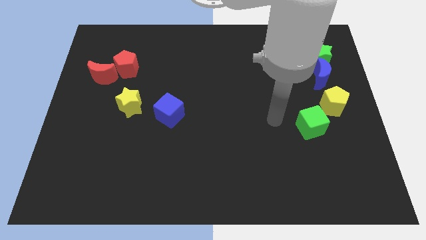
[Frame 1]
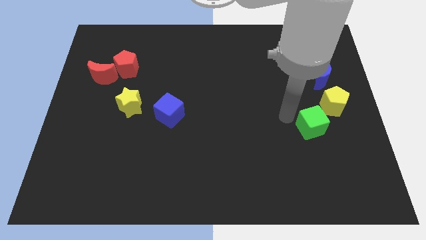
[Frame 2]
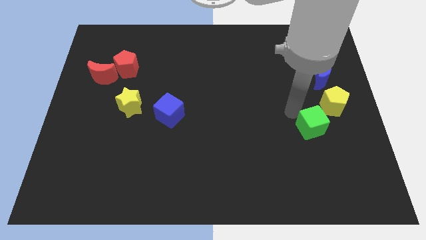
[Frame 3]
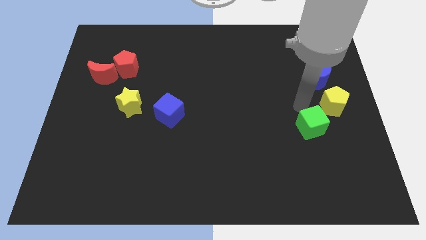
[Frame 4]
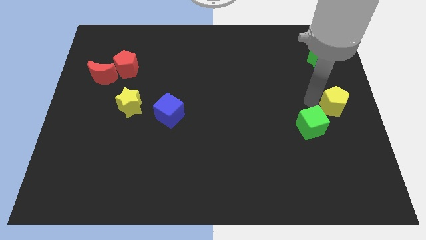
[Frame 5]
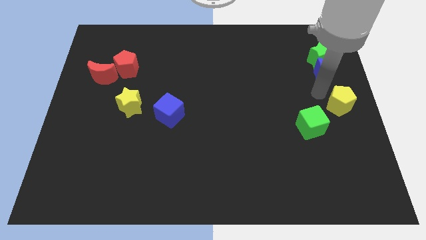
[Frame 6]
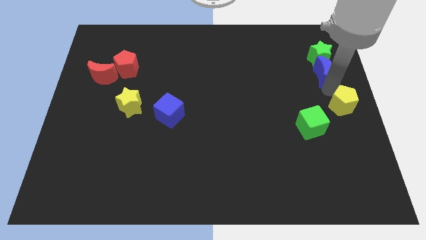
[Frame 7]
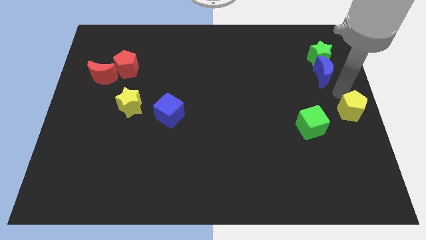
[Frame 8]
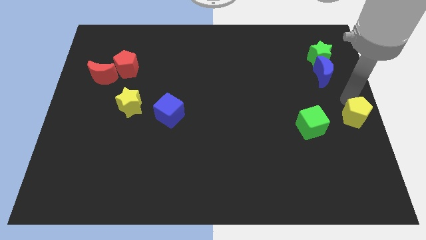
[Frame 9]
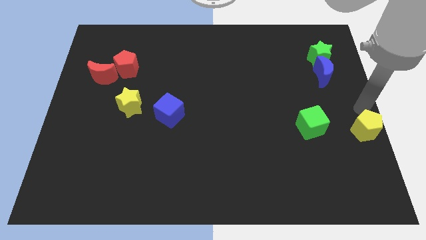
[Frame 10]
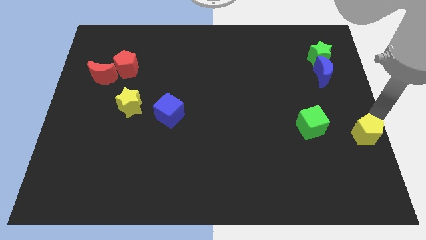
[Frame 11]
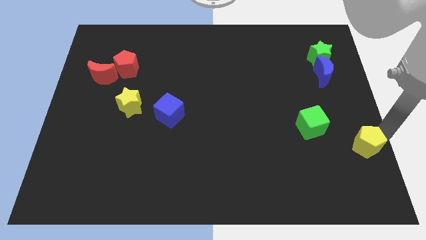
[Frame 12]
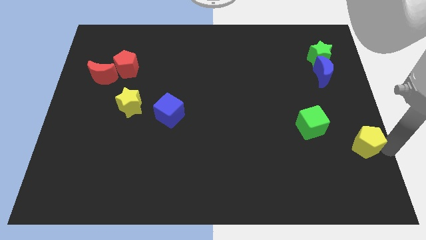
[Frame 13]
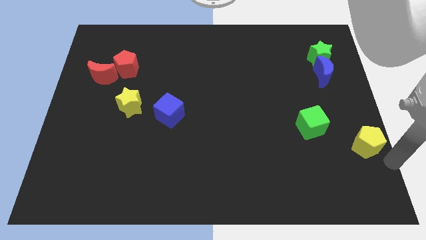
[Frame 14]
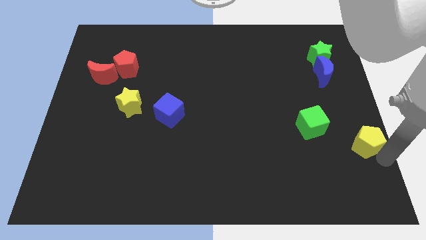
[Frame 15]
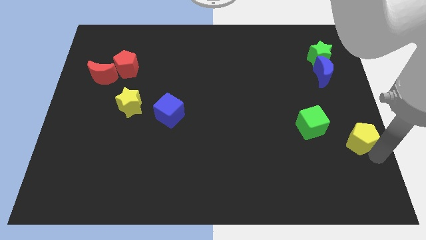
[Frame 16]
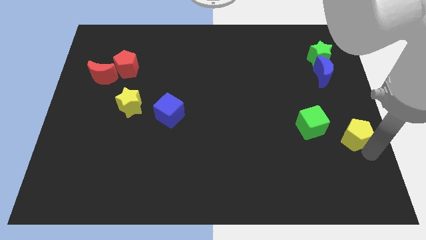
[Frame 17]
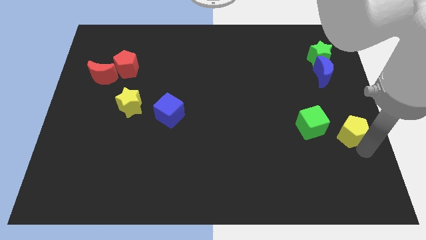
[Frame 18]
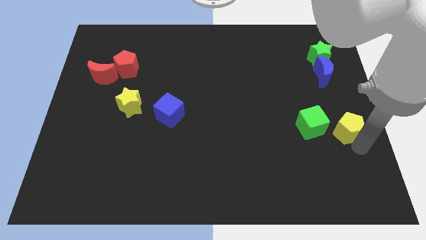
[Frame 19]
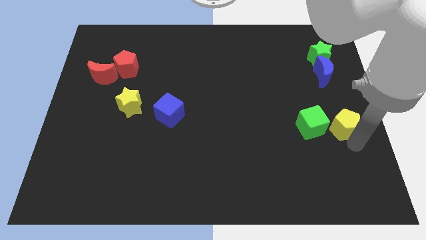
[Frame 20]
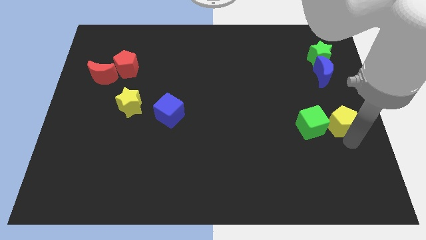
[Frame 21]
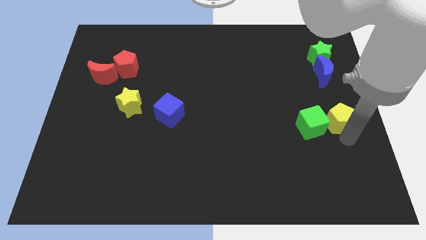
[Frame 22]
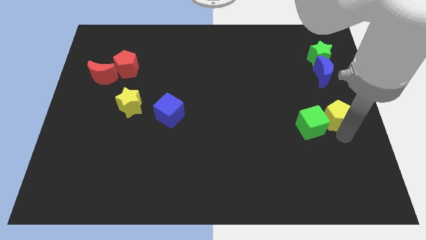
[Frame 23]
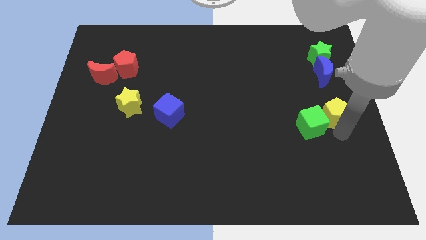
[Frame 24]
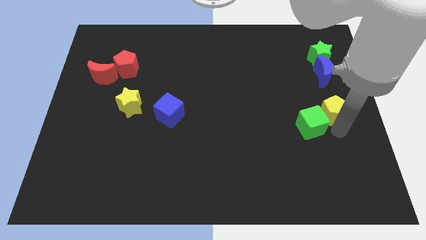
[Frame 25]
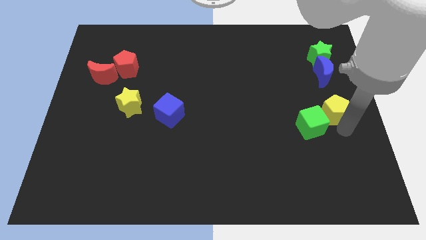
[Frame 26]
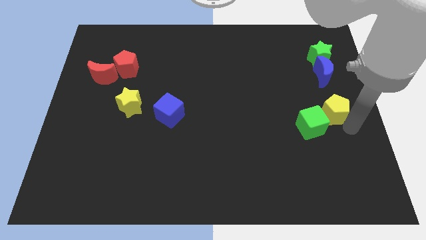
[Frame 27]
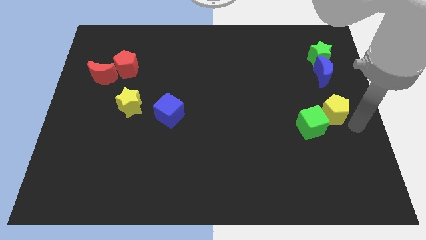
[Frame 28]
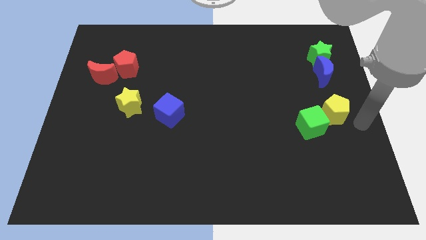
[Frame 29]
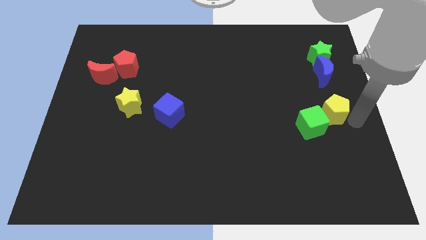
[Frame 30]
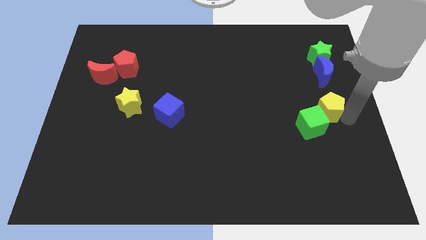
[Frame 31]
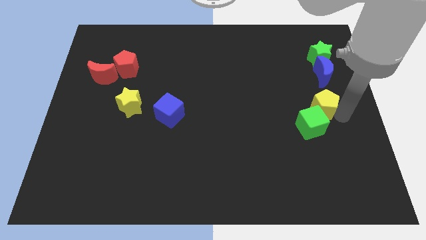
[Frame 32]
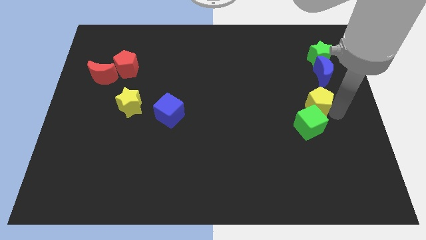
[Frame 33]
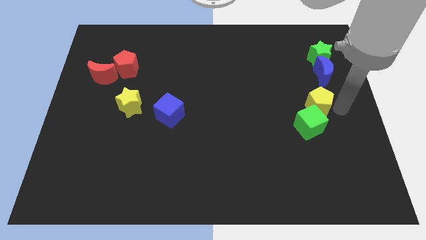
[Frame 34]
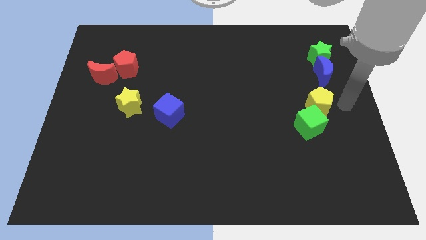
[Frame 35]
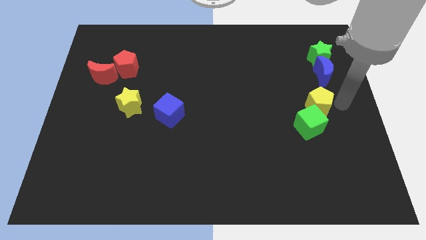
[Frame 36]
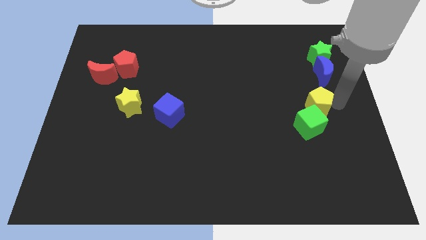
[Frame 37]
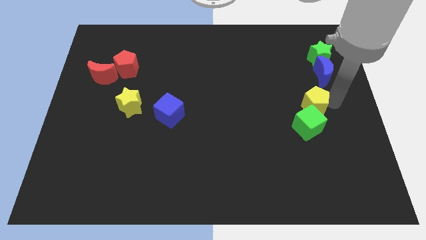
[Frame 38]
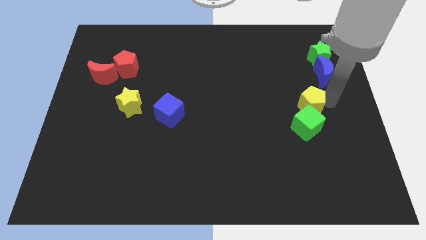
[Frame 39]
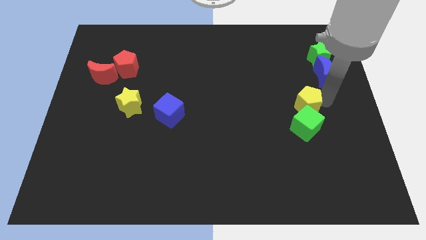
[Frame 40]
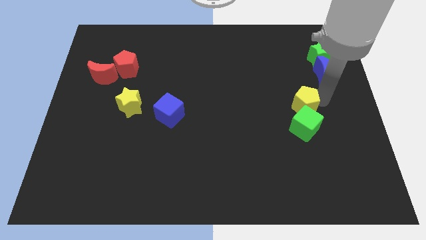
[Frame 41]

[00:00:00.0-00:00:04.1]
slightly slide the yellow pentagon left

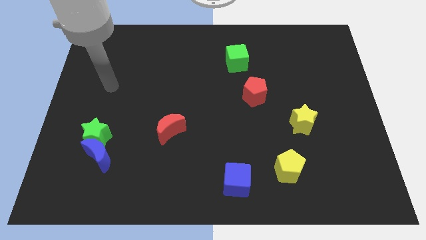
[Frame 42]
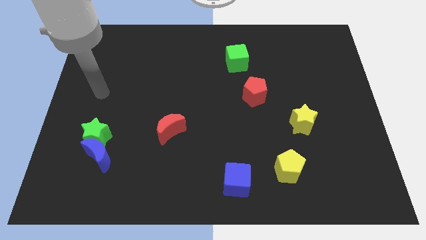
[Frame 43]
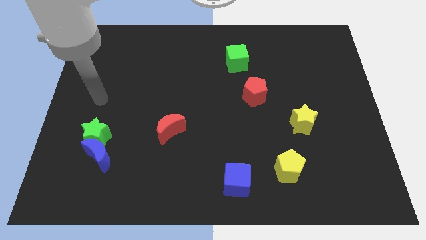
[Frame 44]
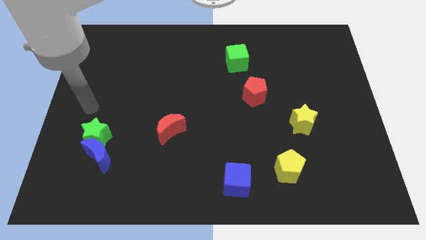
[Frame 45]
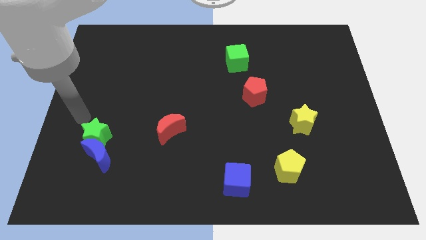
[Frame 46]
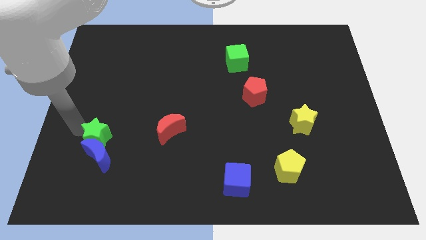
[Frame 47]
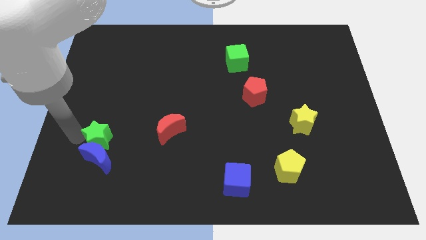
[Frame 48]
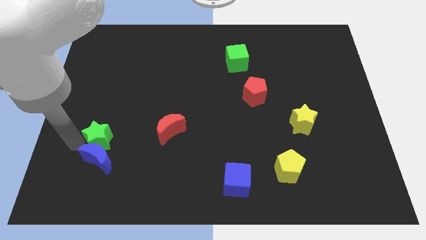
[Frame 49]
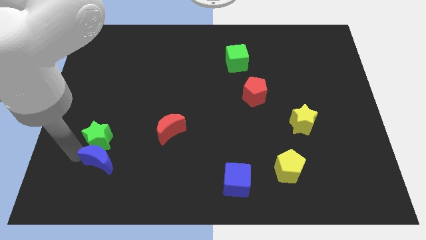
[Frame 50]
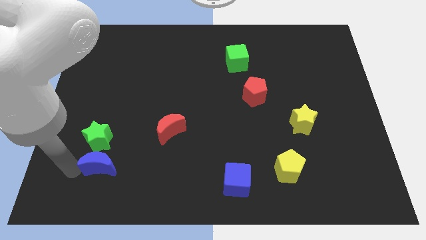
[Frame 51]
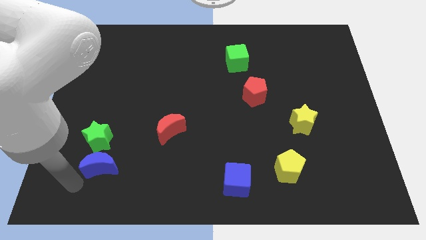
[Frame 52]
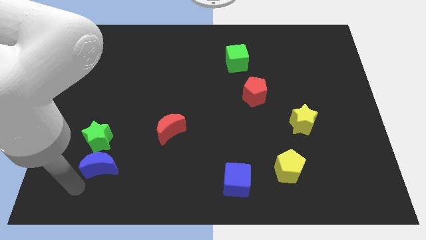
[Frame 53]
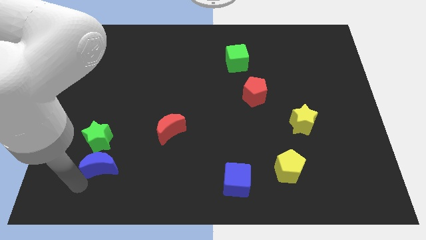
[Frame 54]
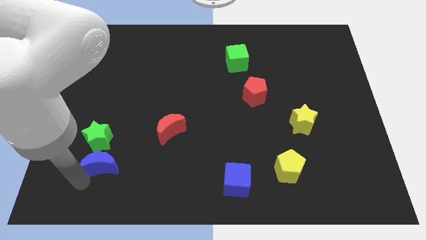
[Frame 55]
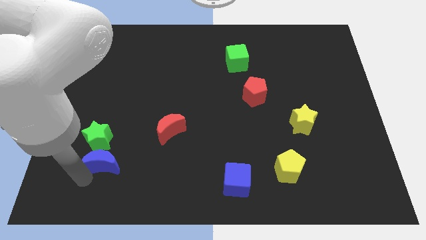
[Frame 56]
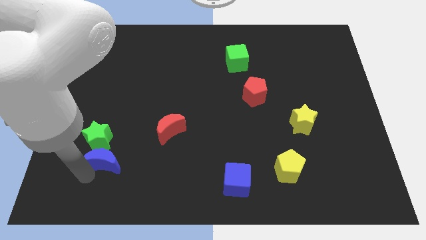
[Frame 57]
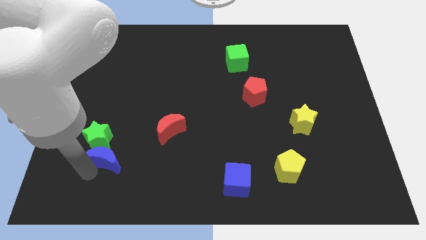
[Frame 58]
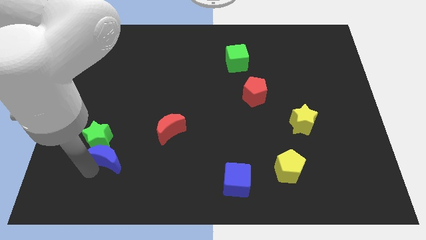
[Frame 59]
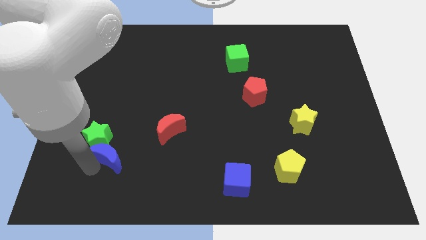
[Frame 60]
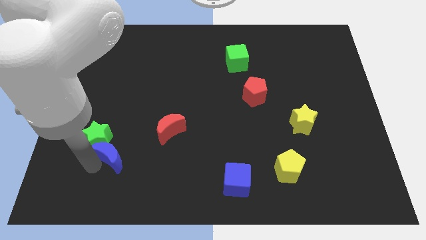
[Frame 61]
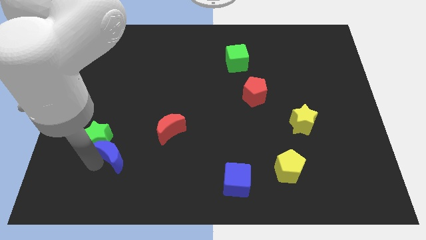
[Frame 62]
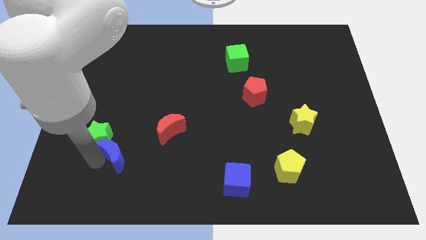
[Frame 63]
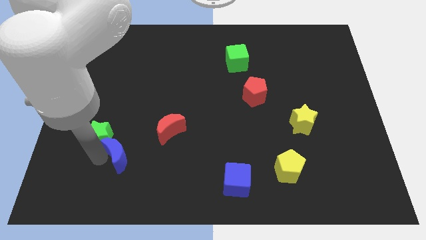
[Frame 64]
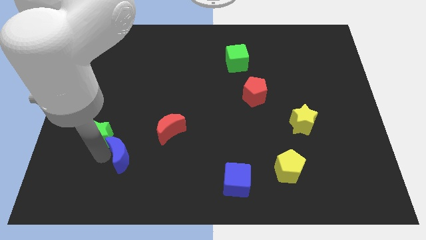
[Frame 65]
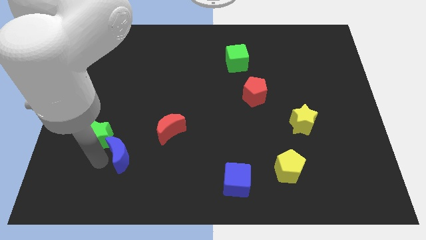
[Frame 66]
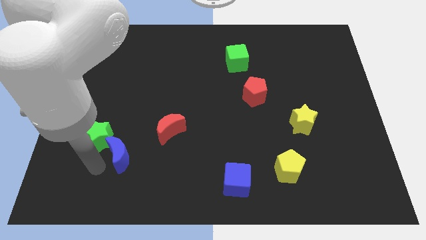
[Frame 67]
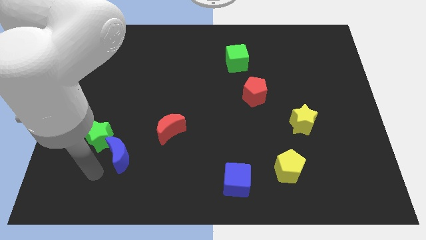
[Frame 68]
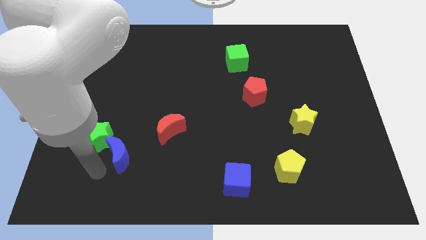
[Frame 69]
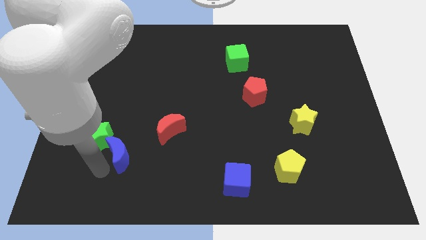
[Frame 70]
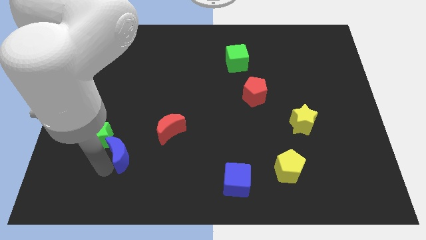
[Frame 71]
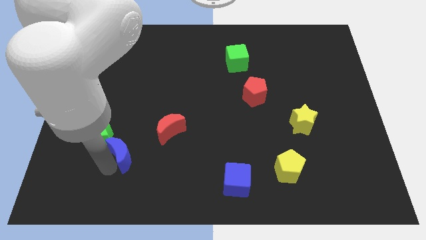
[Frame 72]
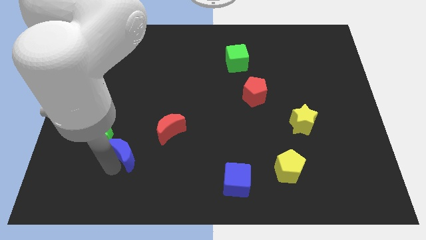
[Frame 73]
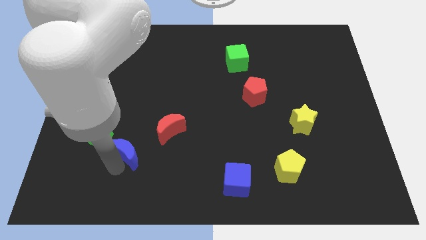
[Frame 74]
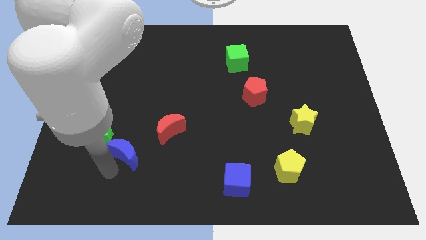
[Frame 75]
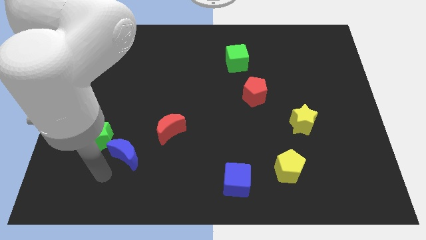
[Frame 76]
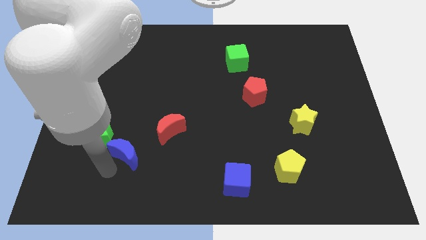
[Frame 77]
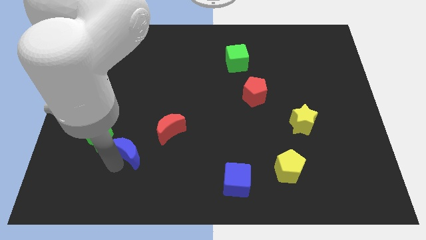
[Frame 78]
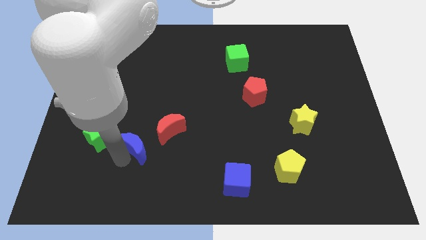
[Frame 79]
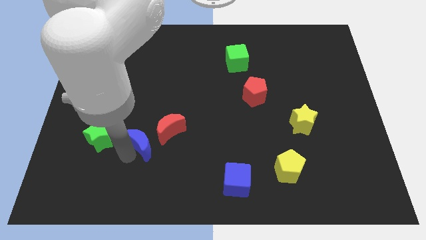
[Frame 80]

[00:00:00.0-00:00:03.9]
move the blue moon up and right diagonally somewhat
